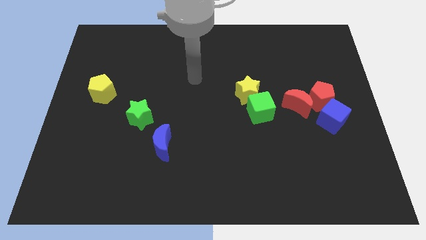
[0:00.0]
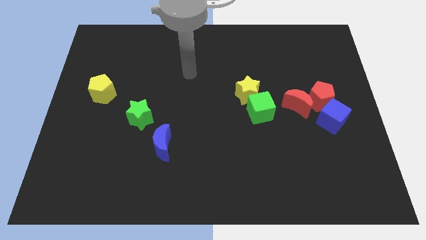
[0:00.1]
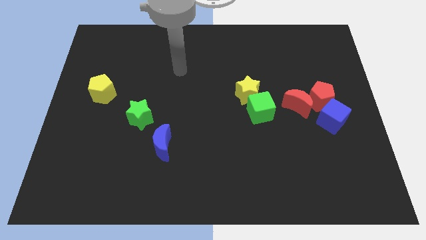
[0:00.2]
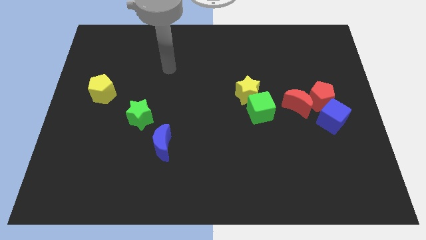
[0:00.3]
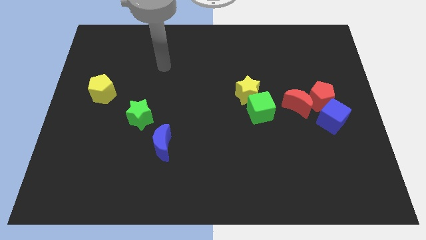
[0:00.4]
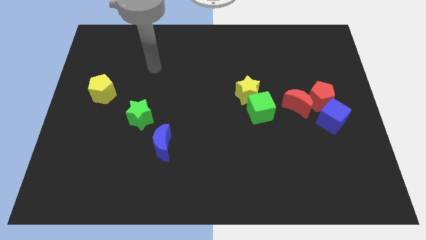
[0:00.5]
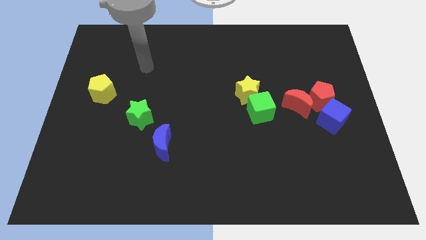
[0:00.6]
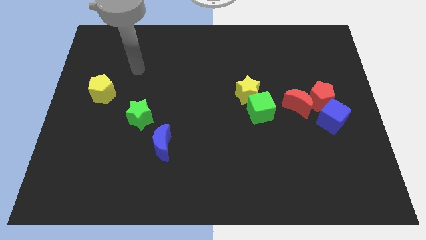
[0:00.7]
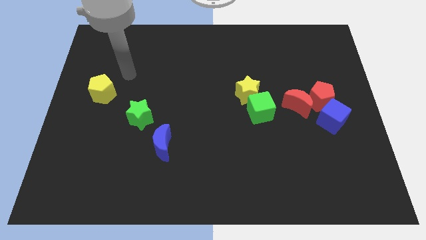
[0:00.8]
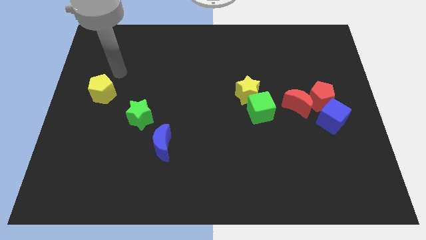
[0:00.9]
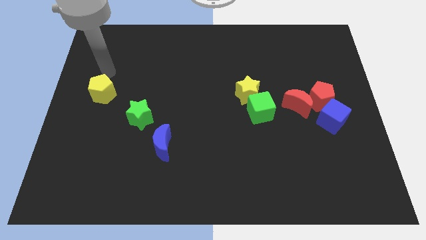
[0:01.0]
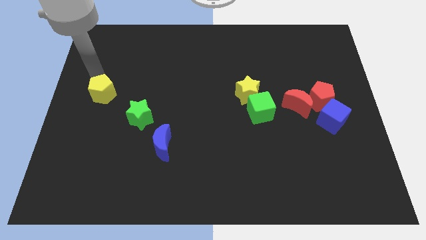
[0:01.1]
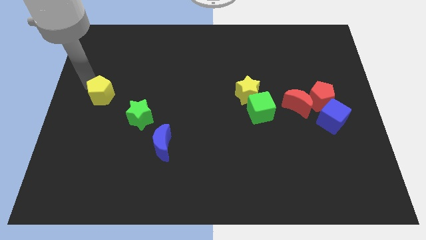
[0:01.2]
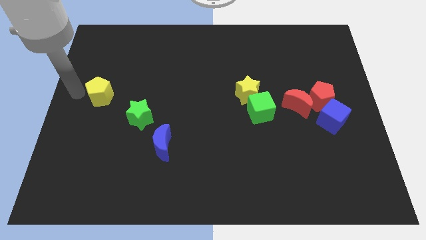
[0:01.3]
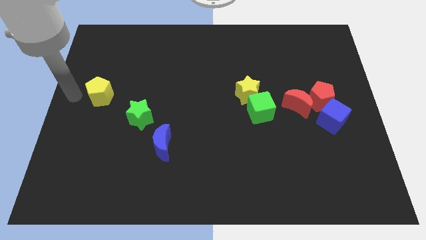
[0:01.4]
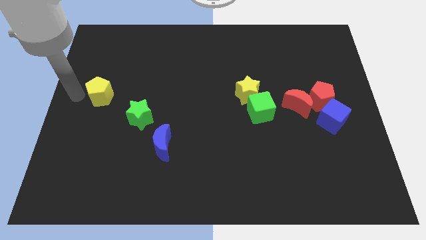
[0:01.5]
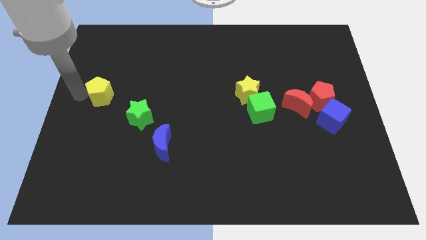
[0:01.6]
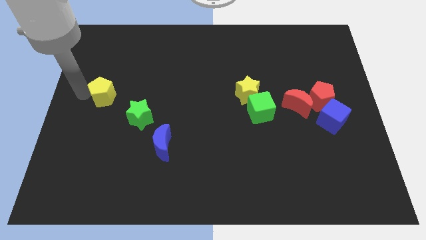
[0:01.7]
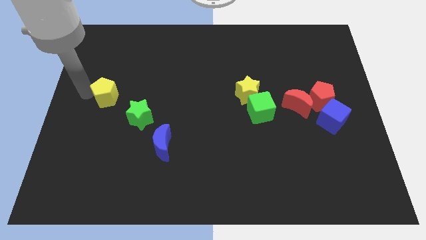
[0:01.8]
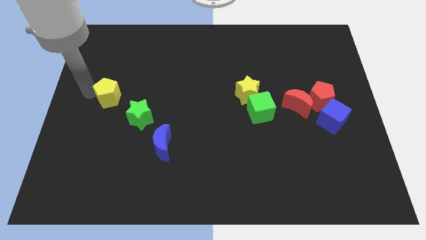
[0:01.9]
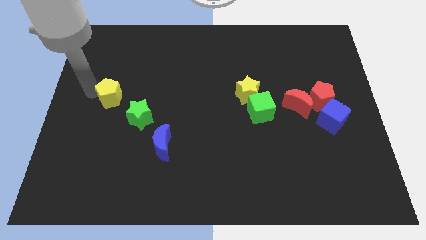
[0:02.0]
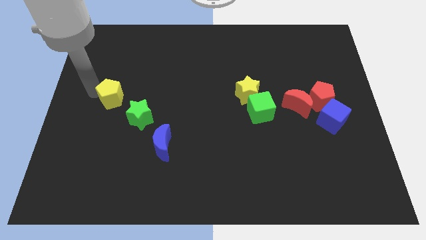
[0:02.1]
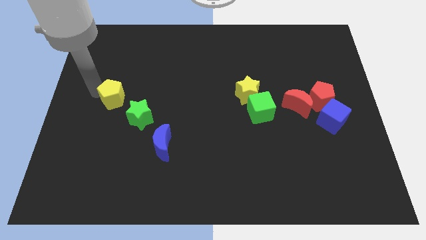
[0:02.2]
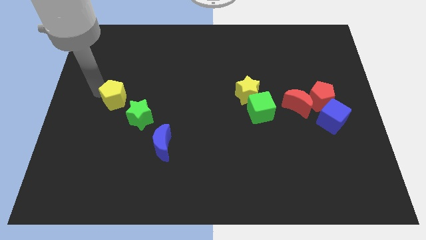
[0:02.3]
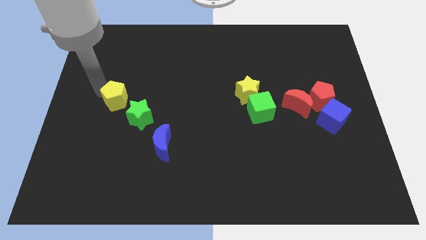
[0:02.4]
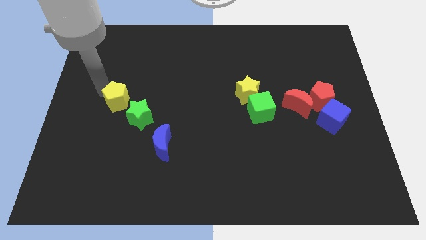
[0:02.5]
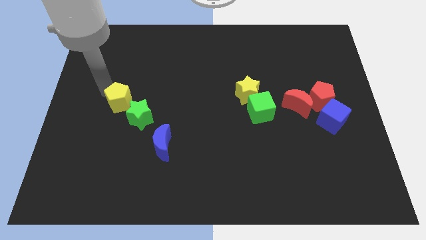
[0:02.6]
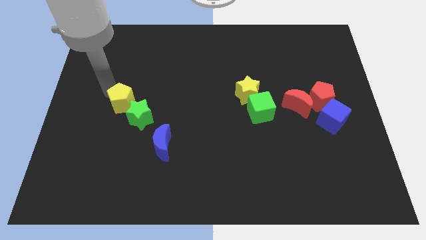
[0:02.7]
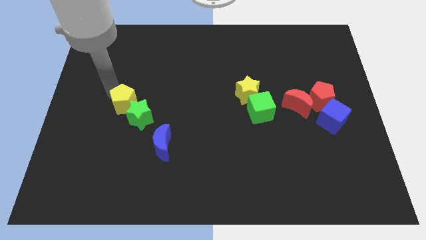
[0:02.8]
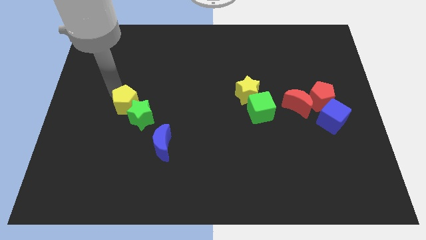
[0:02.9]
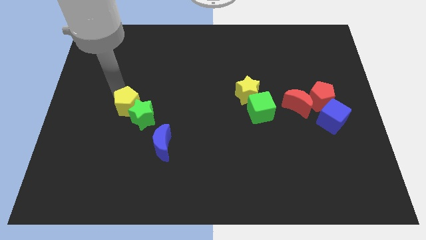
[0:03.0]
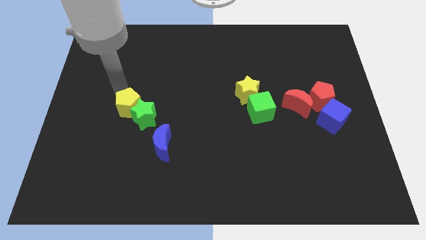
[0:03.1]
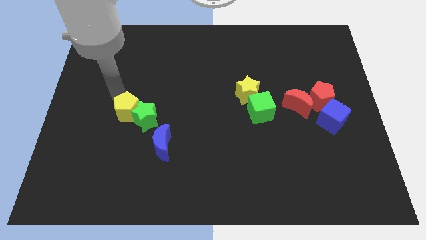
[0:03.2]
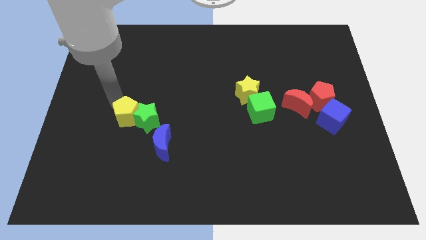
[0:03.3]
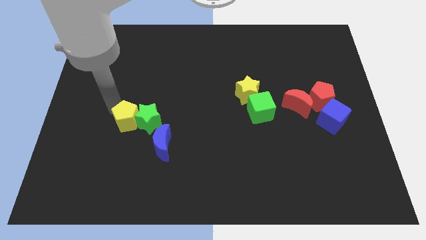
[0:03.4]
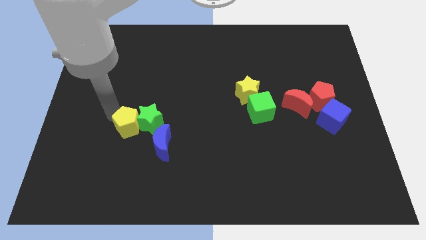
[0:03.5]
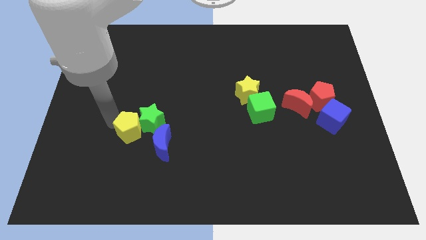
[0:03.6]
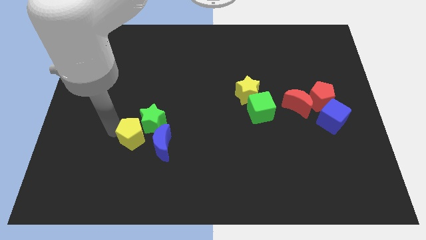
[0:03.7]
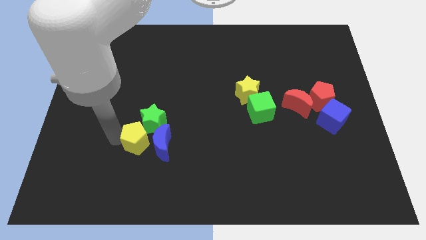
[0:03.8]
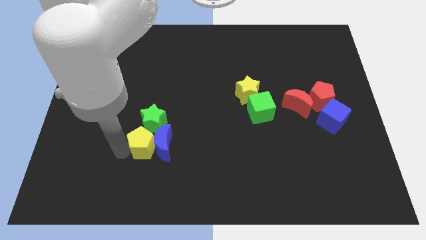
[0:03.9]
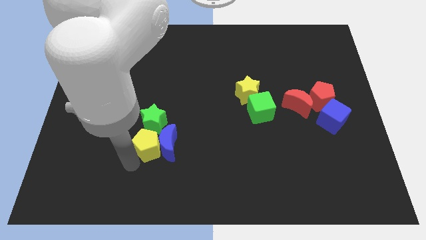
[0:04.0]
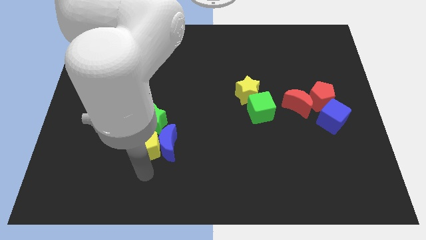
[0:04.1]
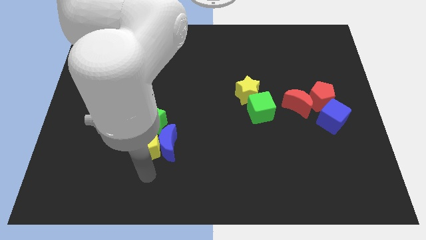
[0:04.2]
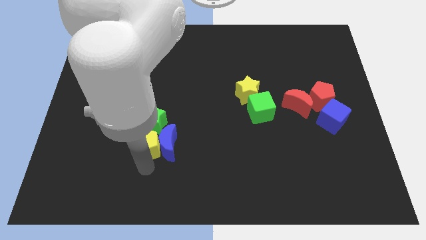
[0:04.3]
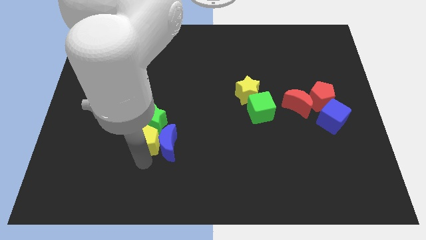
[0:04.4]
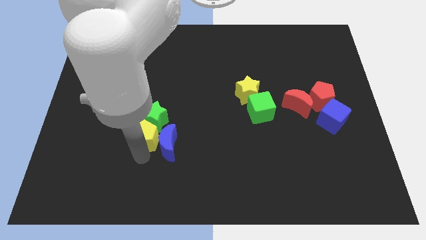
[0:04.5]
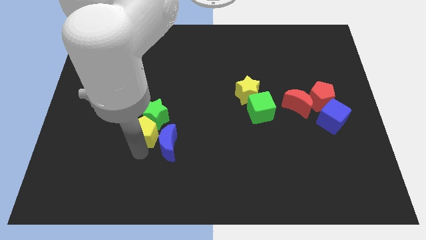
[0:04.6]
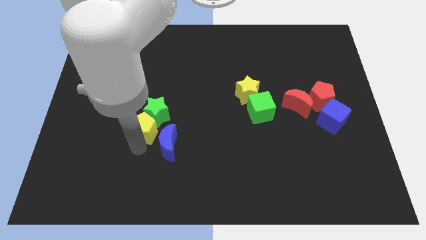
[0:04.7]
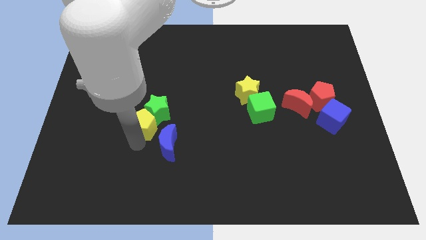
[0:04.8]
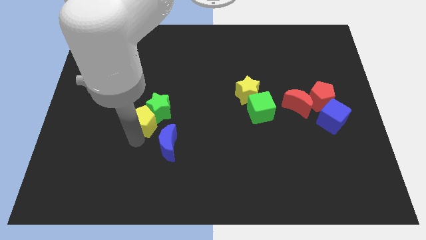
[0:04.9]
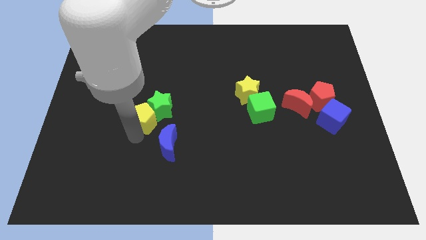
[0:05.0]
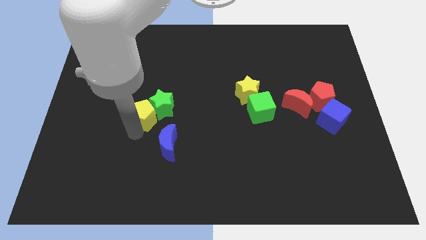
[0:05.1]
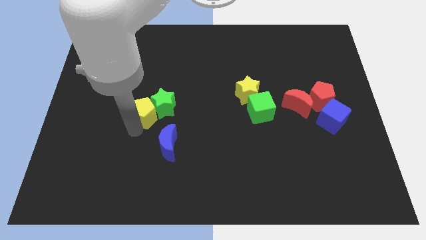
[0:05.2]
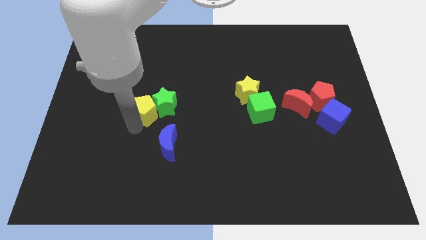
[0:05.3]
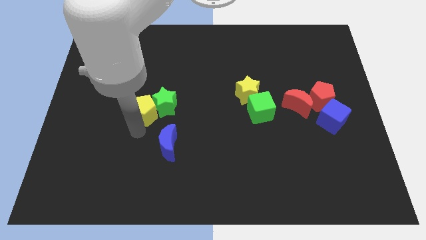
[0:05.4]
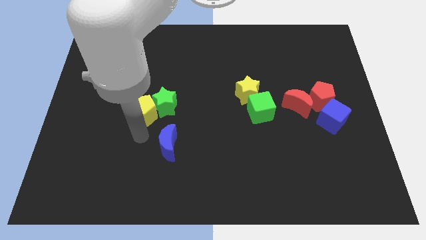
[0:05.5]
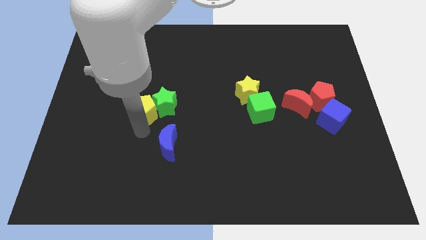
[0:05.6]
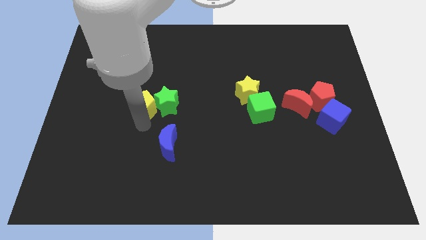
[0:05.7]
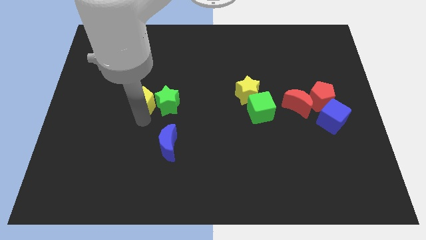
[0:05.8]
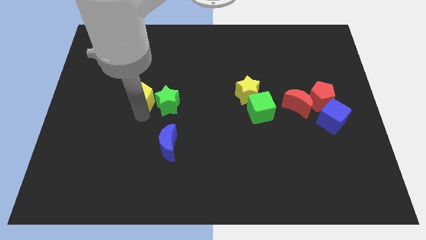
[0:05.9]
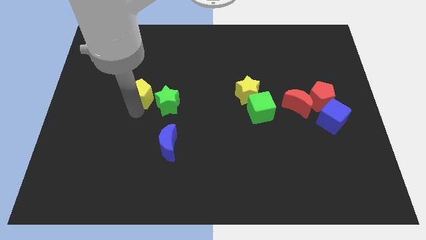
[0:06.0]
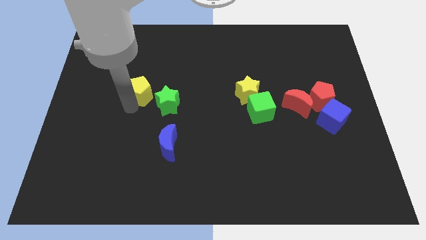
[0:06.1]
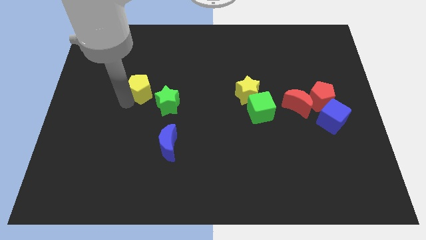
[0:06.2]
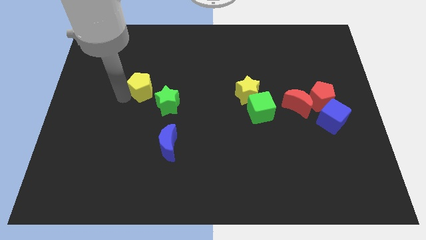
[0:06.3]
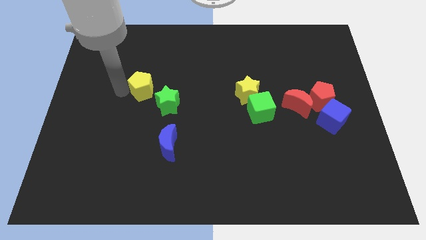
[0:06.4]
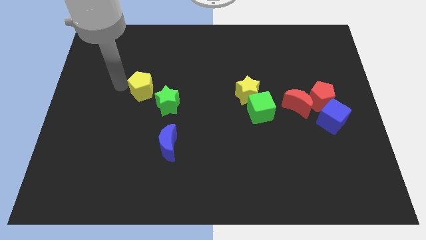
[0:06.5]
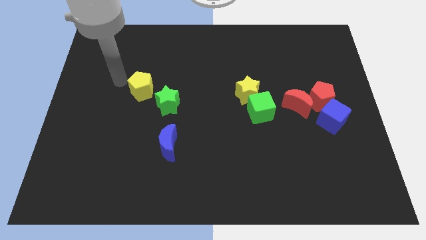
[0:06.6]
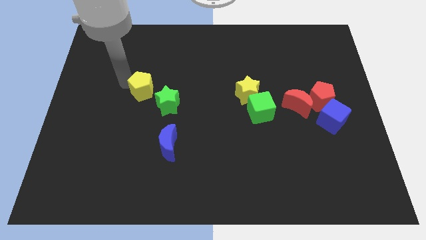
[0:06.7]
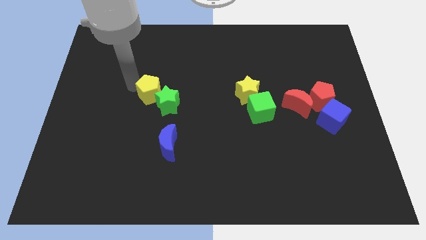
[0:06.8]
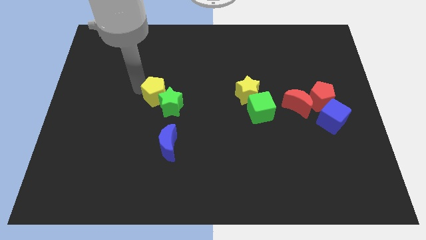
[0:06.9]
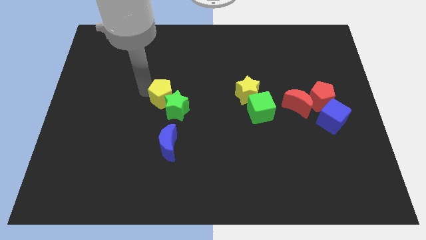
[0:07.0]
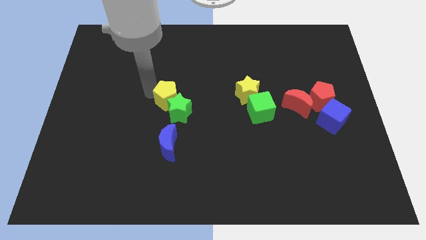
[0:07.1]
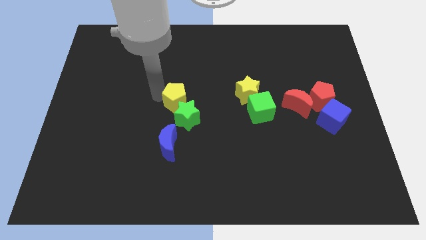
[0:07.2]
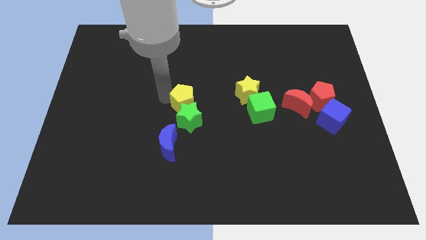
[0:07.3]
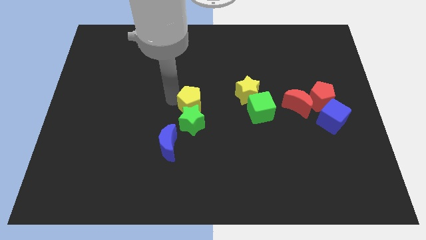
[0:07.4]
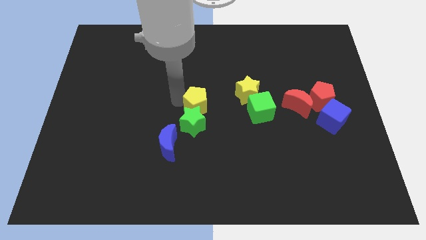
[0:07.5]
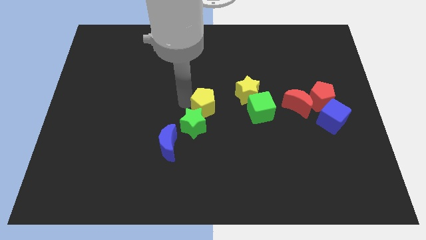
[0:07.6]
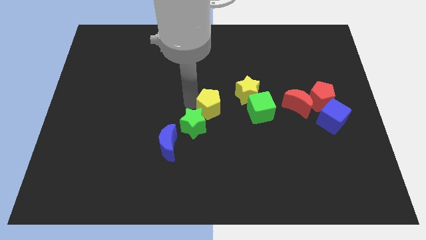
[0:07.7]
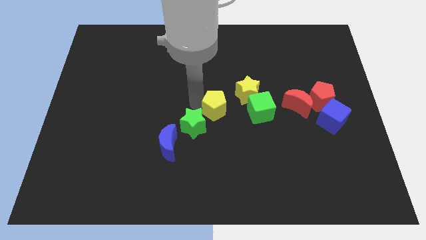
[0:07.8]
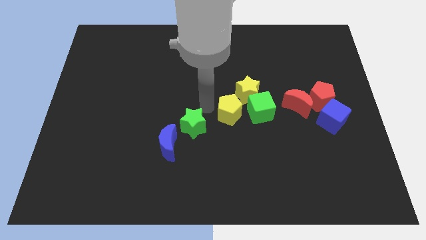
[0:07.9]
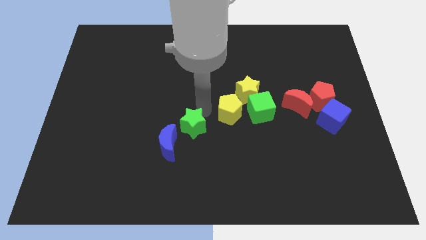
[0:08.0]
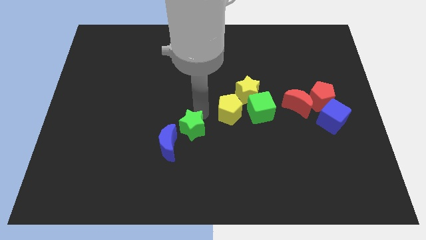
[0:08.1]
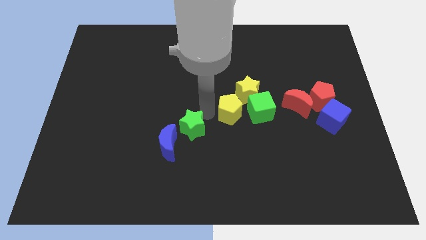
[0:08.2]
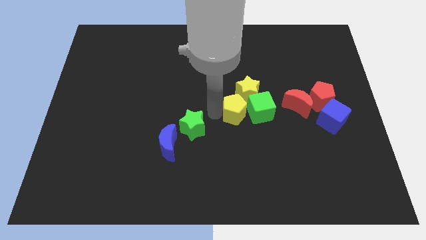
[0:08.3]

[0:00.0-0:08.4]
push the yellow pentagon to the green cube
